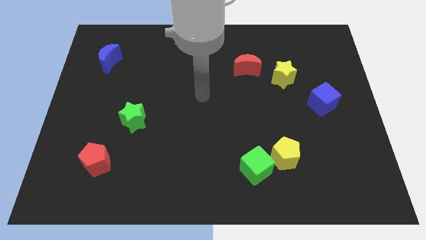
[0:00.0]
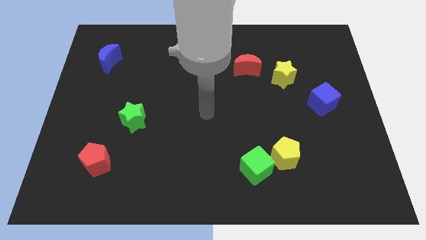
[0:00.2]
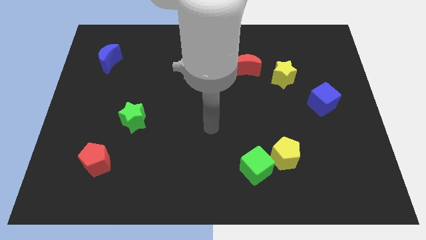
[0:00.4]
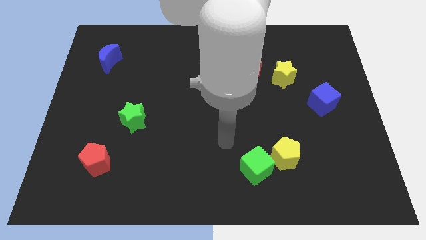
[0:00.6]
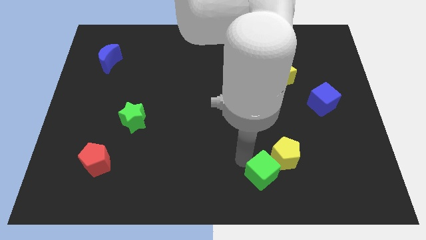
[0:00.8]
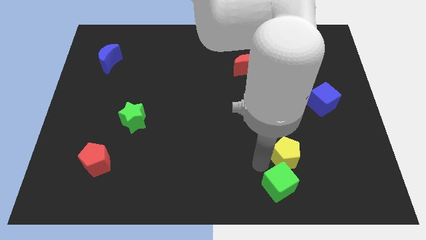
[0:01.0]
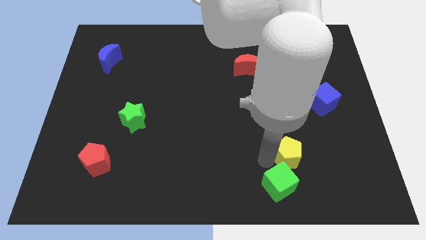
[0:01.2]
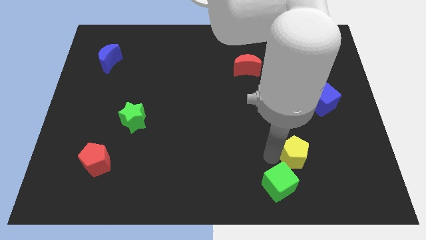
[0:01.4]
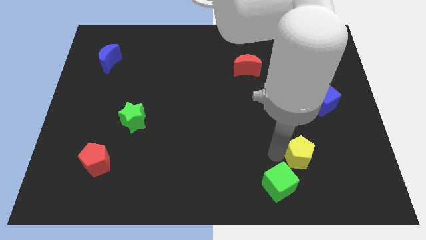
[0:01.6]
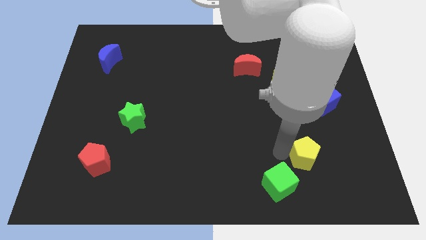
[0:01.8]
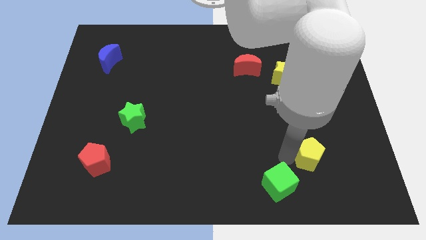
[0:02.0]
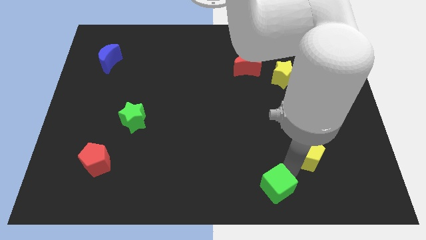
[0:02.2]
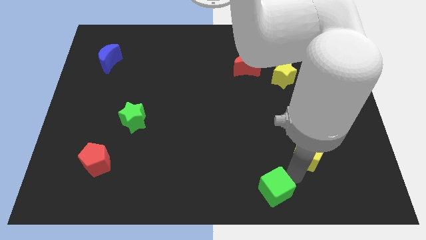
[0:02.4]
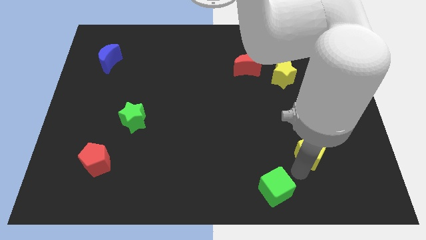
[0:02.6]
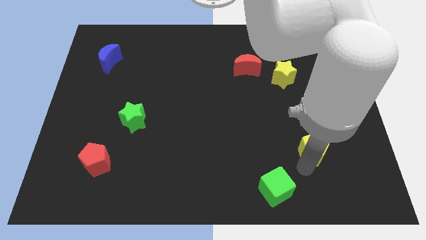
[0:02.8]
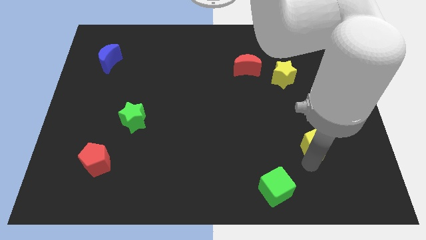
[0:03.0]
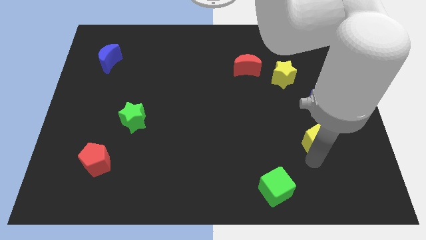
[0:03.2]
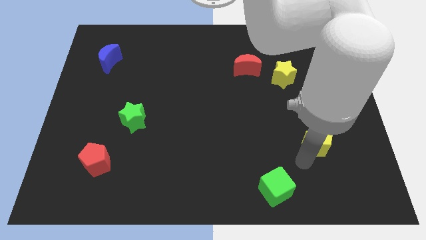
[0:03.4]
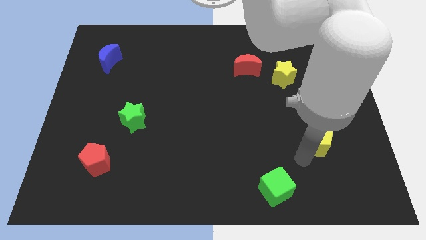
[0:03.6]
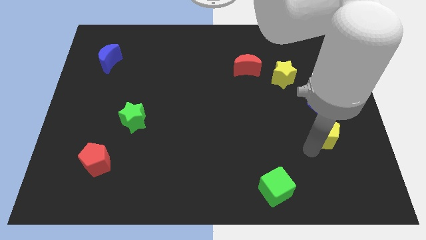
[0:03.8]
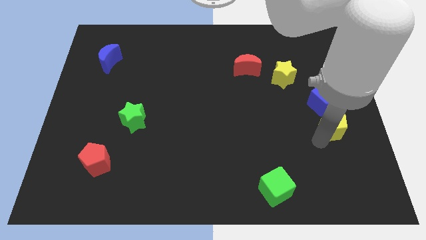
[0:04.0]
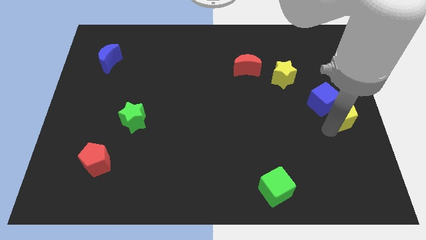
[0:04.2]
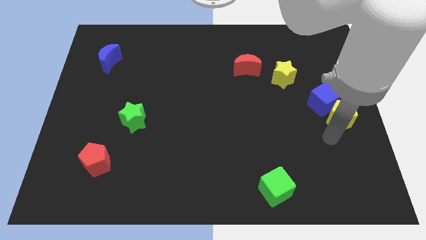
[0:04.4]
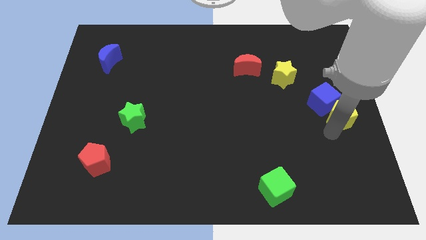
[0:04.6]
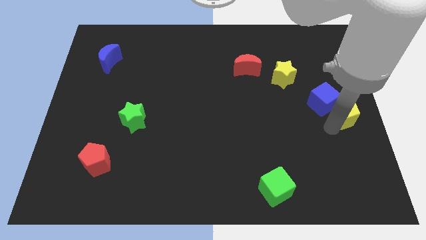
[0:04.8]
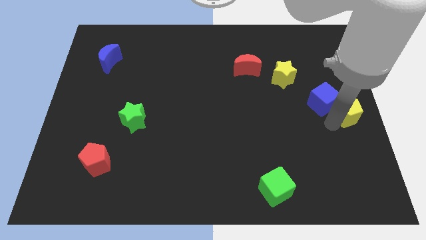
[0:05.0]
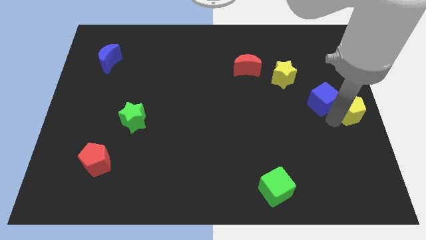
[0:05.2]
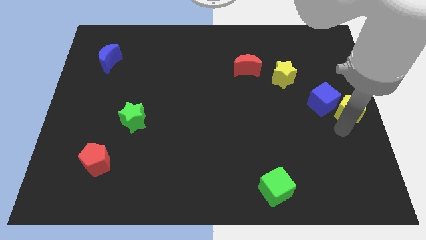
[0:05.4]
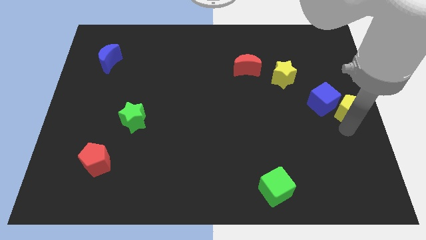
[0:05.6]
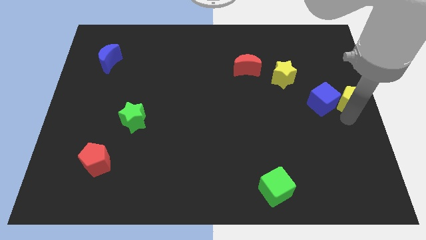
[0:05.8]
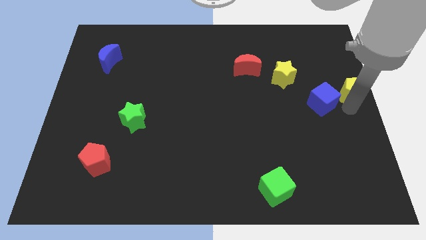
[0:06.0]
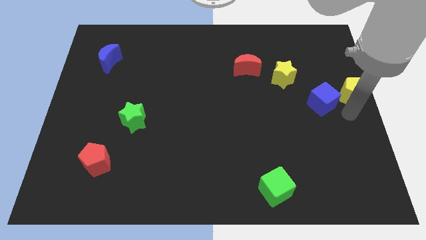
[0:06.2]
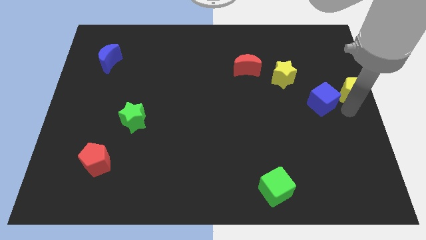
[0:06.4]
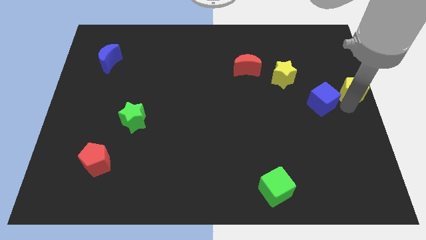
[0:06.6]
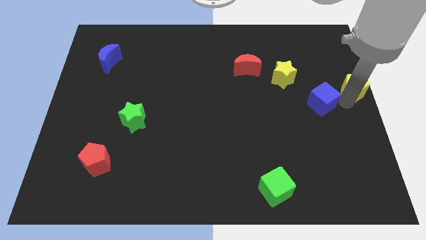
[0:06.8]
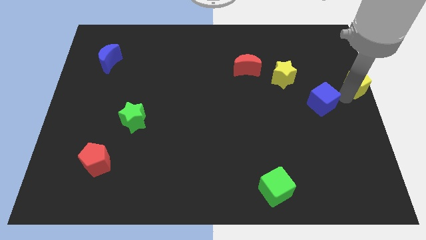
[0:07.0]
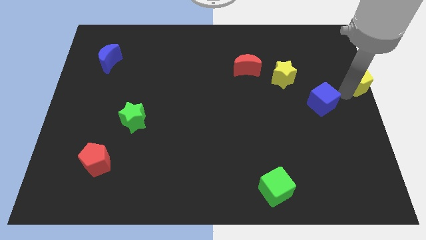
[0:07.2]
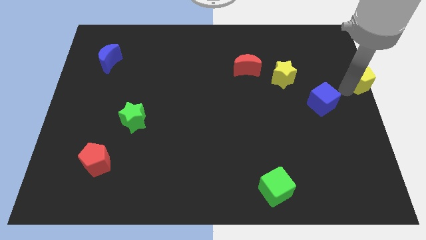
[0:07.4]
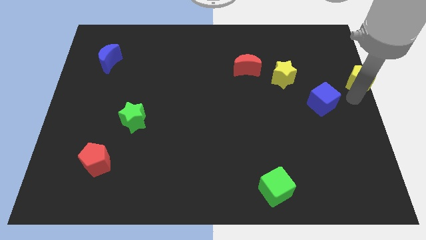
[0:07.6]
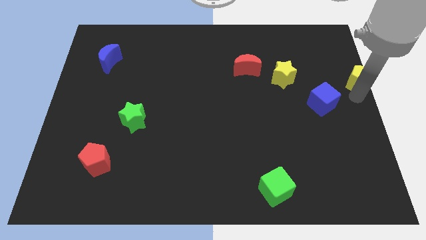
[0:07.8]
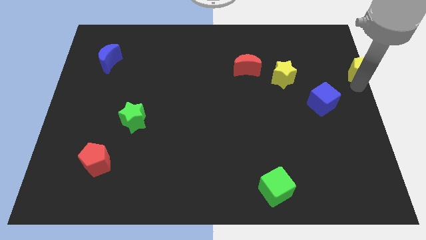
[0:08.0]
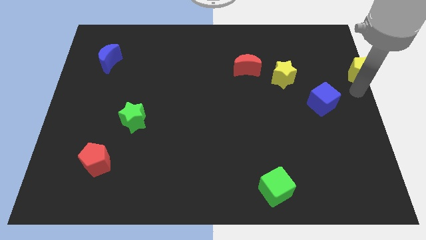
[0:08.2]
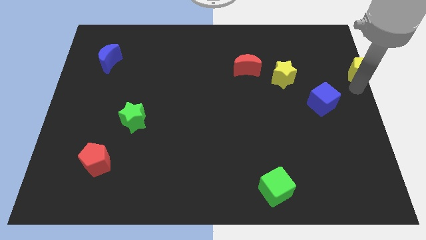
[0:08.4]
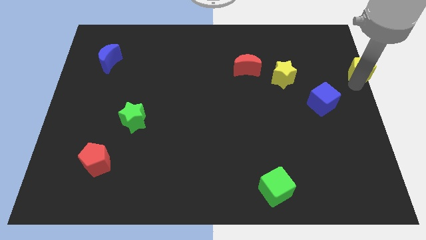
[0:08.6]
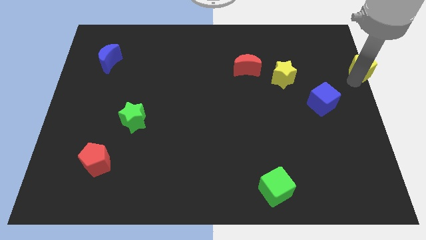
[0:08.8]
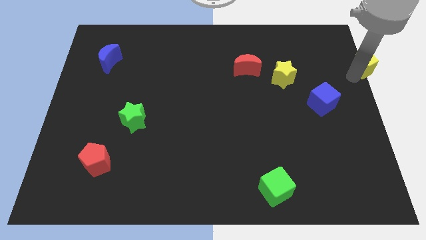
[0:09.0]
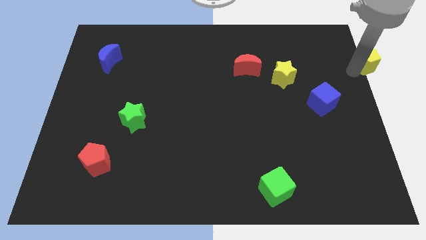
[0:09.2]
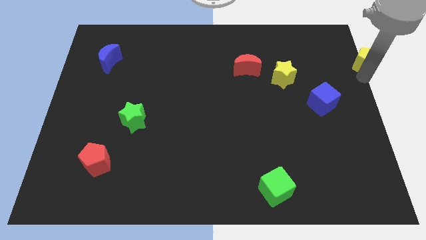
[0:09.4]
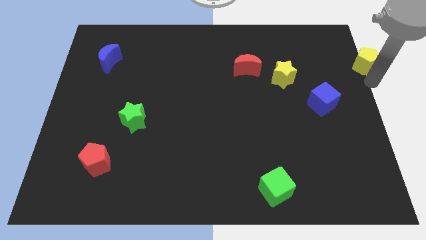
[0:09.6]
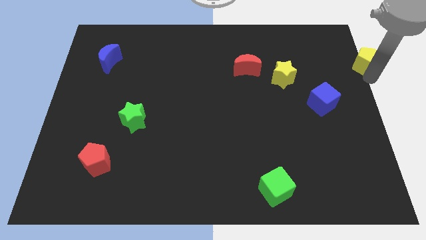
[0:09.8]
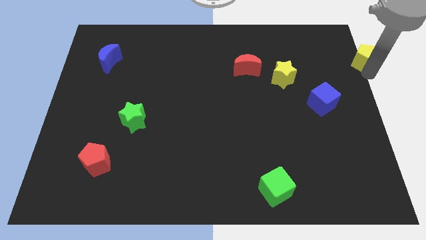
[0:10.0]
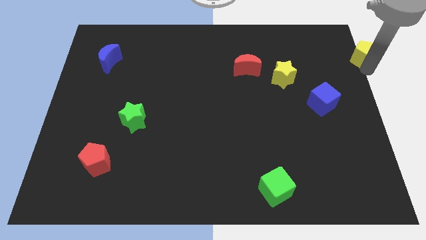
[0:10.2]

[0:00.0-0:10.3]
move the yellow pentagon to the top right of the board

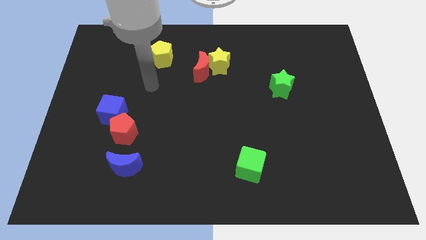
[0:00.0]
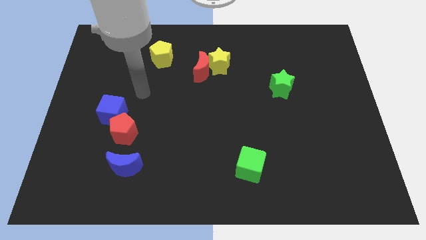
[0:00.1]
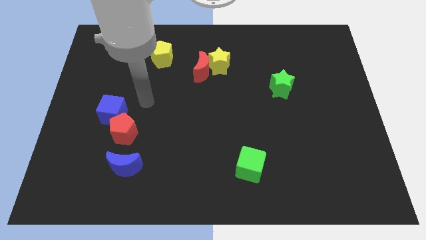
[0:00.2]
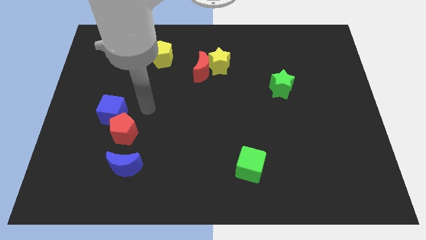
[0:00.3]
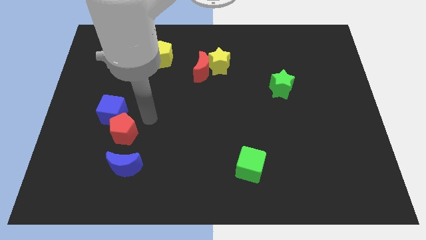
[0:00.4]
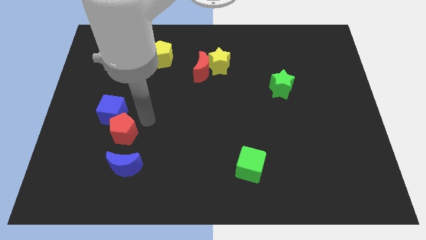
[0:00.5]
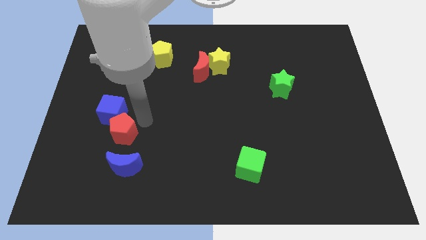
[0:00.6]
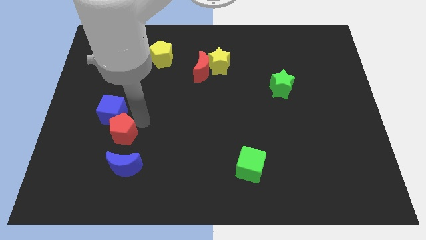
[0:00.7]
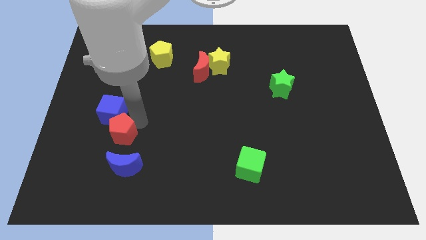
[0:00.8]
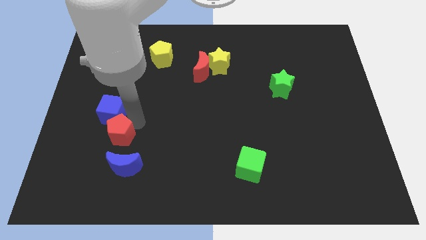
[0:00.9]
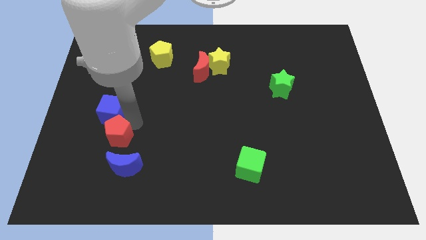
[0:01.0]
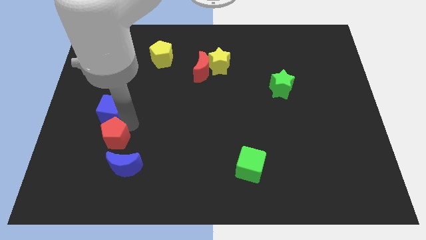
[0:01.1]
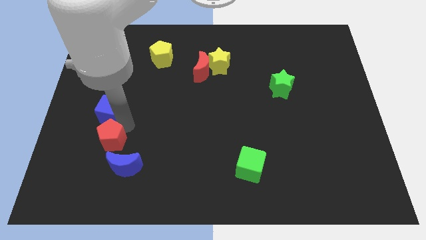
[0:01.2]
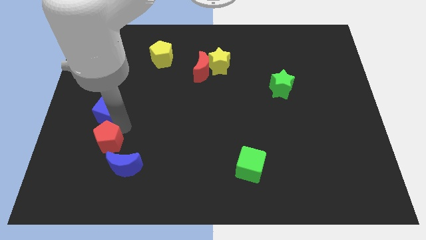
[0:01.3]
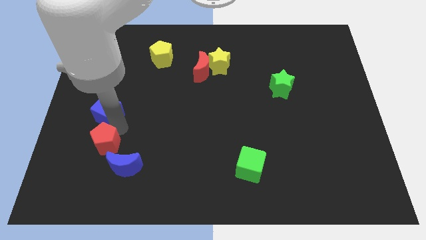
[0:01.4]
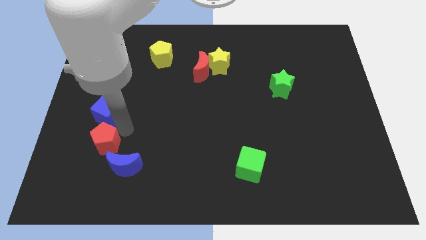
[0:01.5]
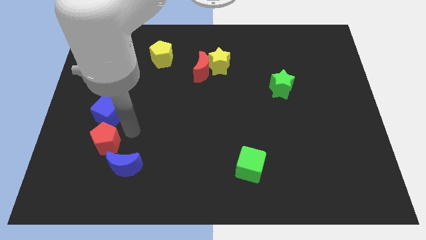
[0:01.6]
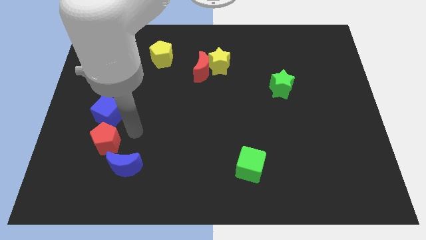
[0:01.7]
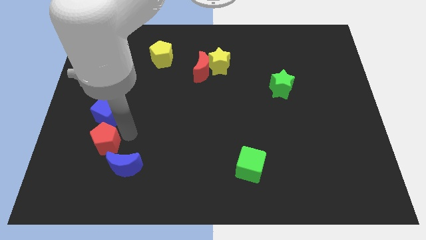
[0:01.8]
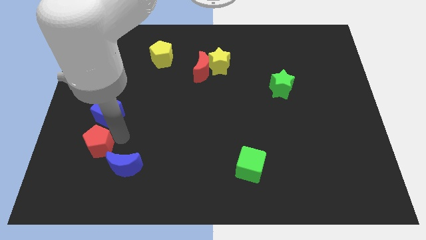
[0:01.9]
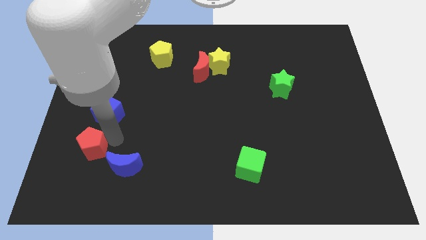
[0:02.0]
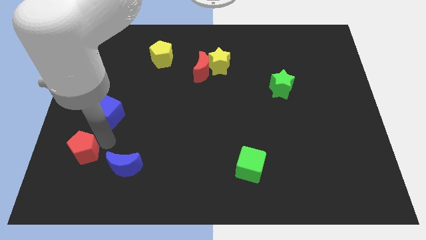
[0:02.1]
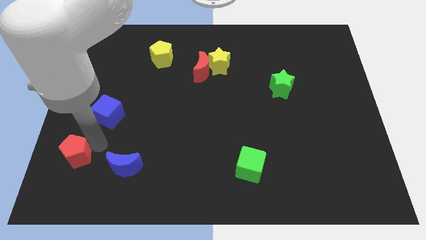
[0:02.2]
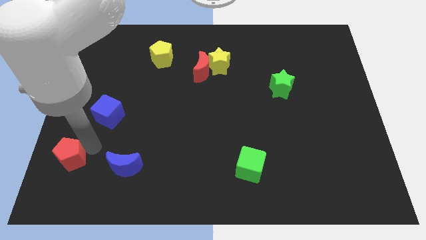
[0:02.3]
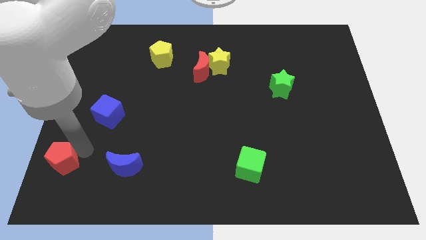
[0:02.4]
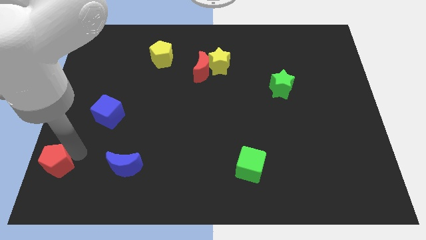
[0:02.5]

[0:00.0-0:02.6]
put the red pentagon to the bottom left corner
